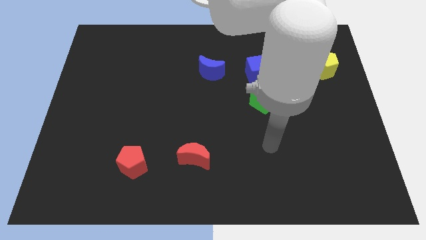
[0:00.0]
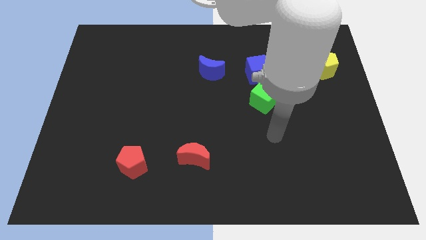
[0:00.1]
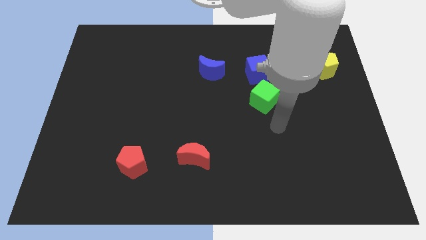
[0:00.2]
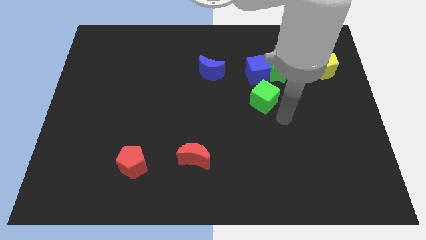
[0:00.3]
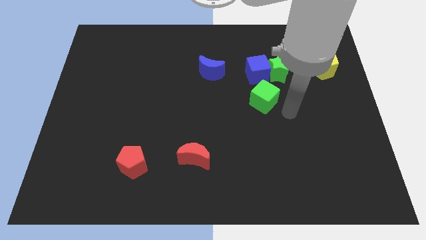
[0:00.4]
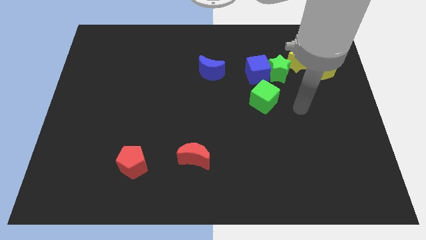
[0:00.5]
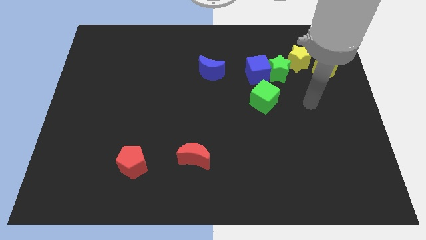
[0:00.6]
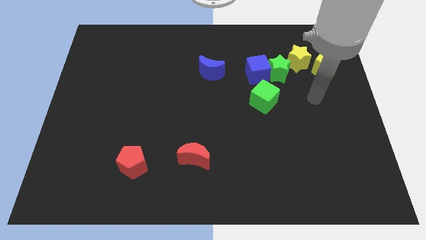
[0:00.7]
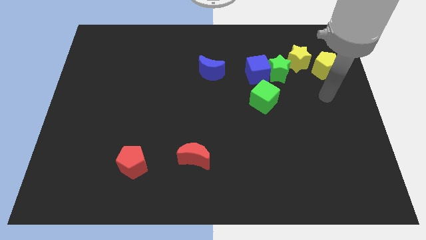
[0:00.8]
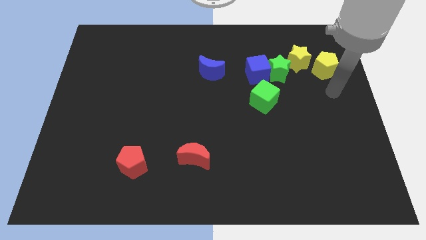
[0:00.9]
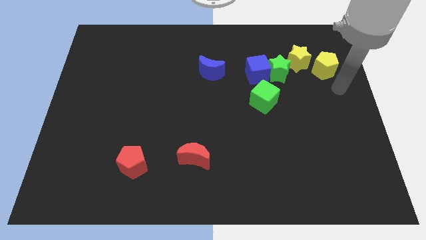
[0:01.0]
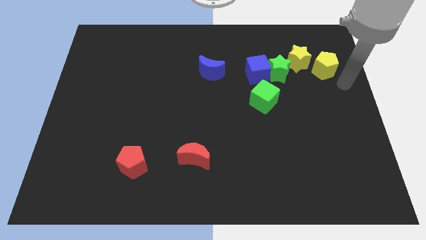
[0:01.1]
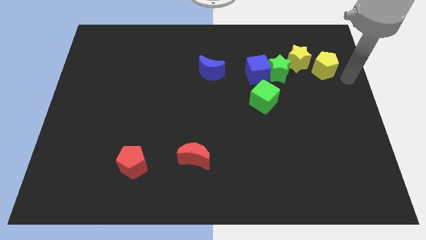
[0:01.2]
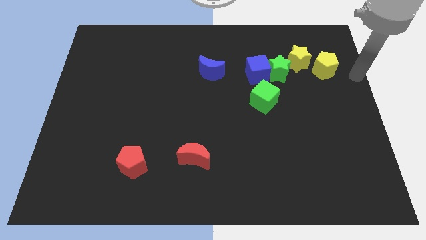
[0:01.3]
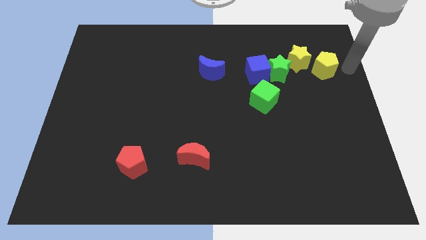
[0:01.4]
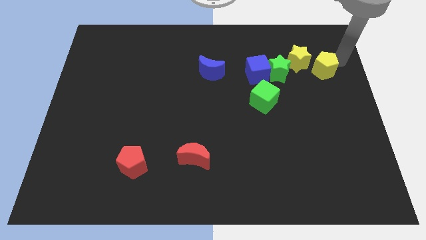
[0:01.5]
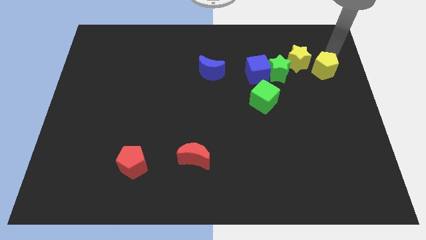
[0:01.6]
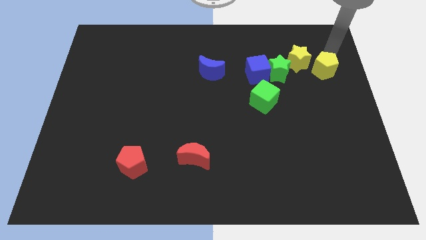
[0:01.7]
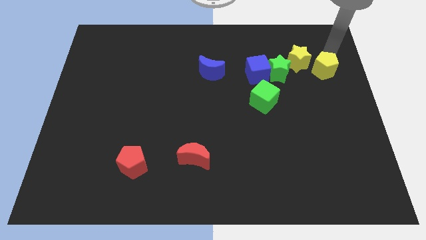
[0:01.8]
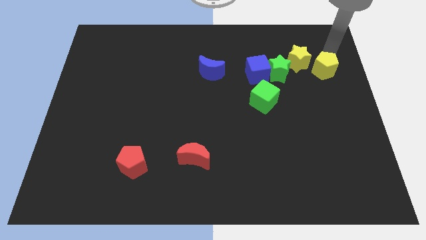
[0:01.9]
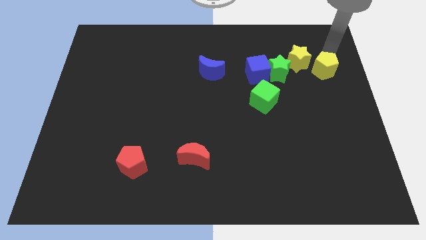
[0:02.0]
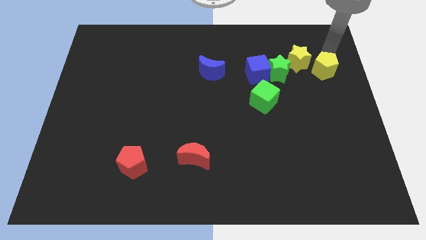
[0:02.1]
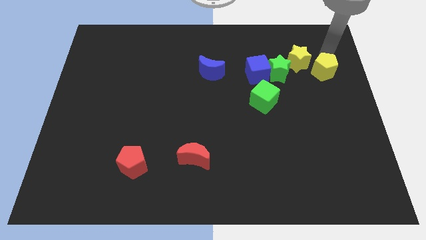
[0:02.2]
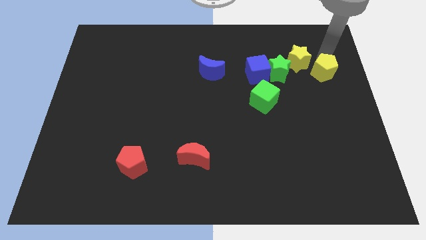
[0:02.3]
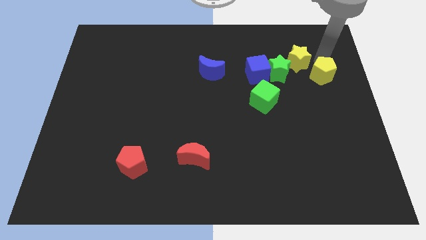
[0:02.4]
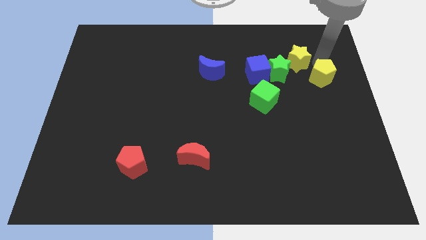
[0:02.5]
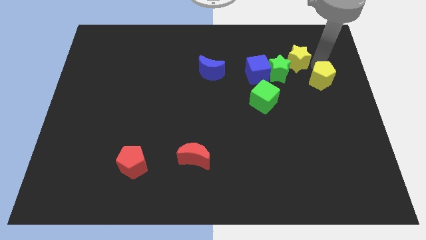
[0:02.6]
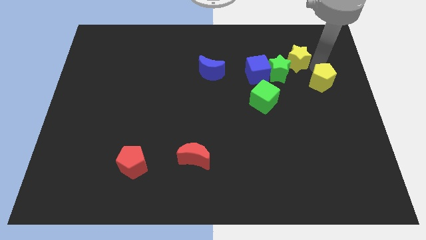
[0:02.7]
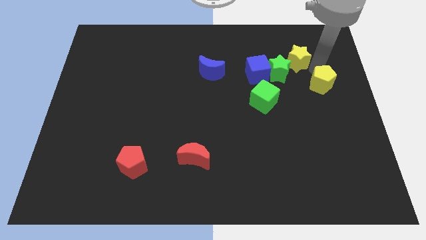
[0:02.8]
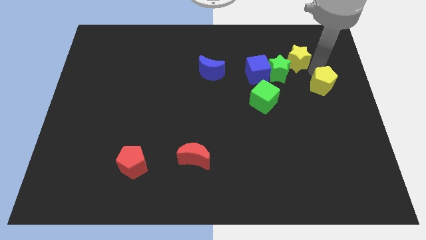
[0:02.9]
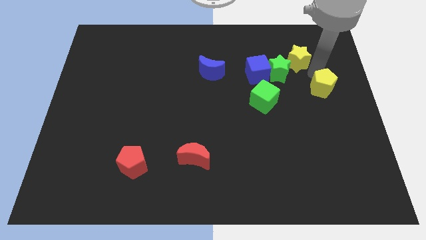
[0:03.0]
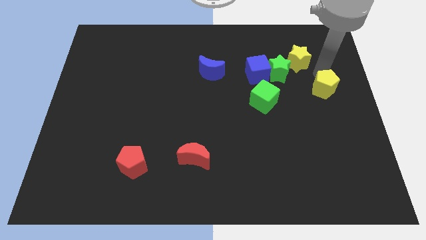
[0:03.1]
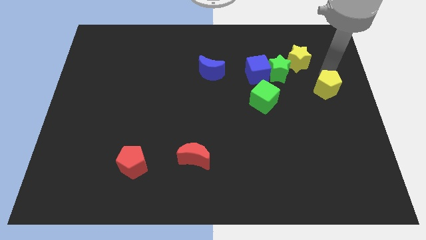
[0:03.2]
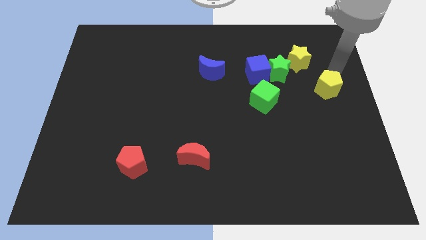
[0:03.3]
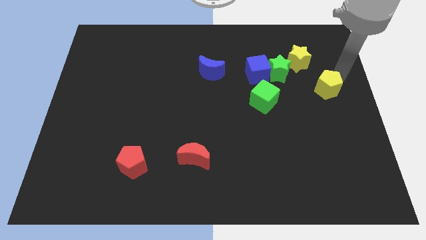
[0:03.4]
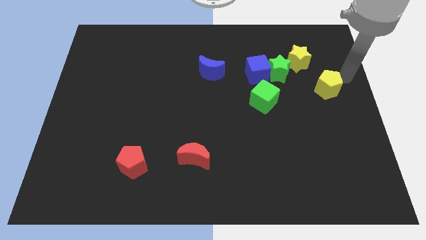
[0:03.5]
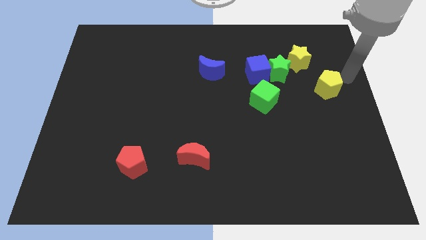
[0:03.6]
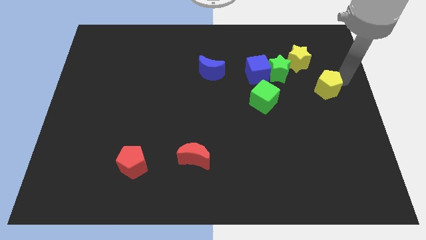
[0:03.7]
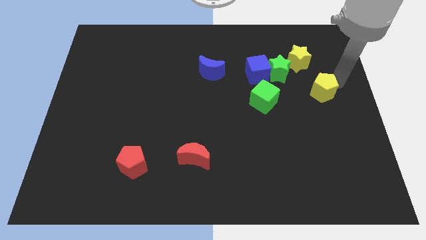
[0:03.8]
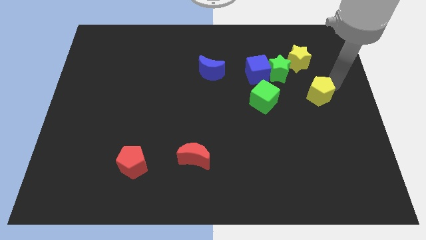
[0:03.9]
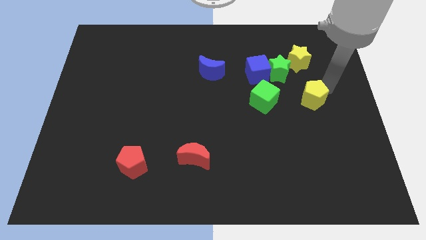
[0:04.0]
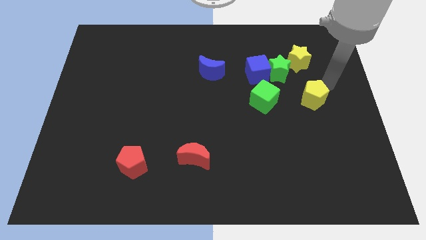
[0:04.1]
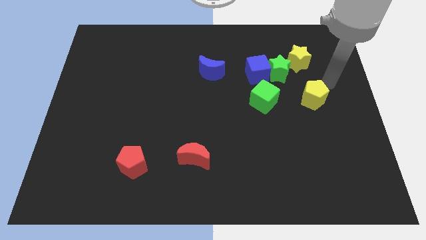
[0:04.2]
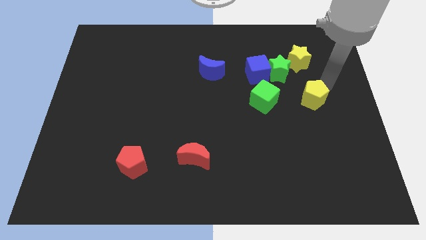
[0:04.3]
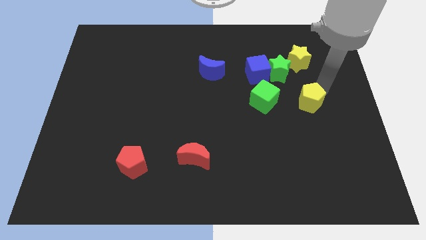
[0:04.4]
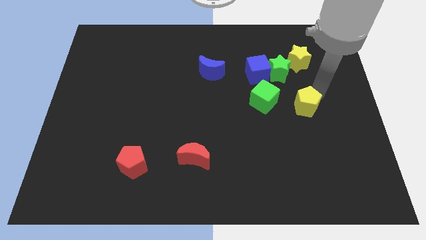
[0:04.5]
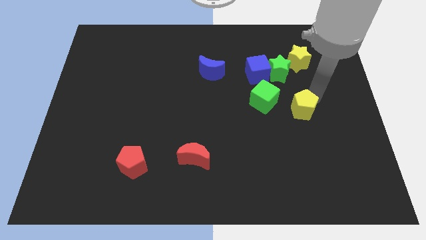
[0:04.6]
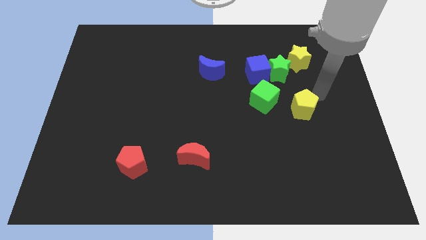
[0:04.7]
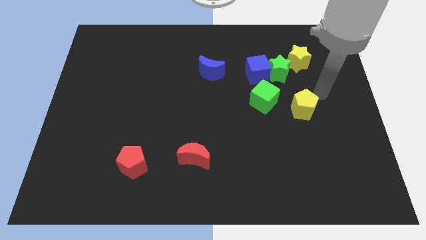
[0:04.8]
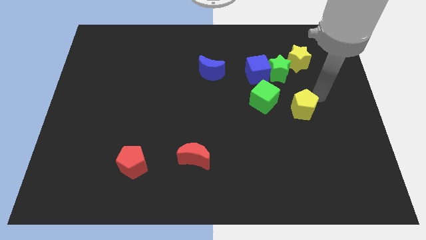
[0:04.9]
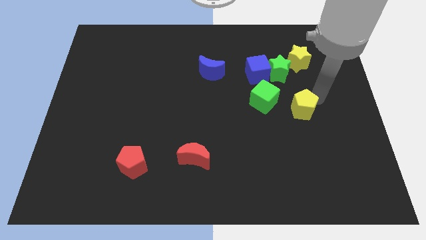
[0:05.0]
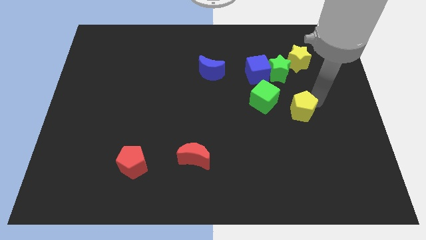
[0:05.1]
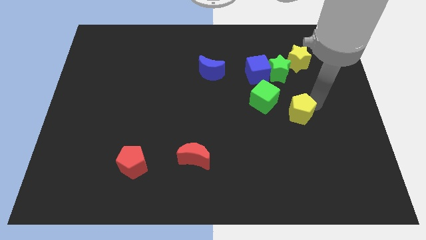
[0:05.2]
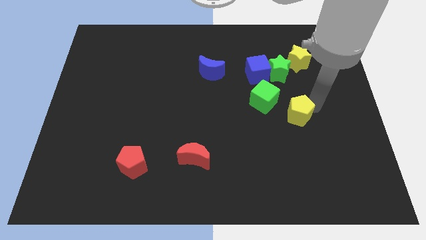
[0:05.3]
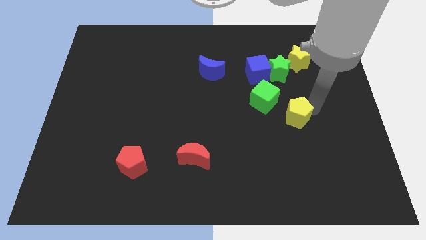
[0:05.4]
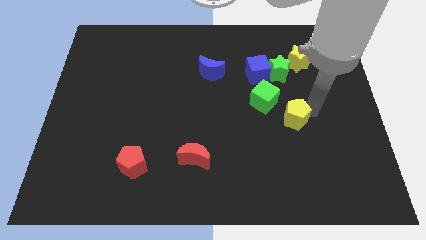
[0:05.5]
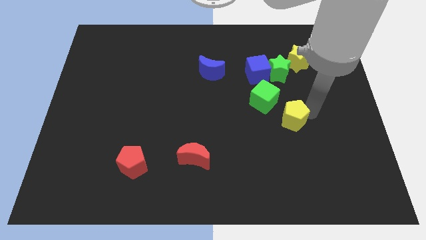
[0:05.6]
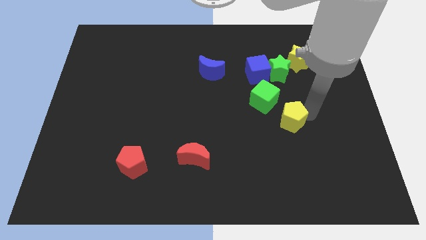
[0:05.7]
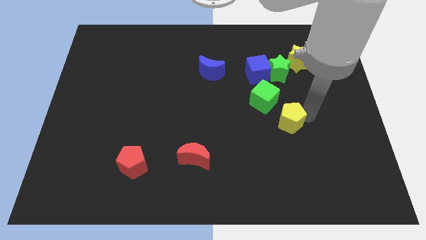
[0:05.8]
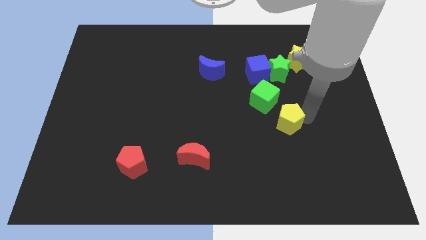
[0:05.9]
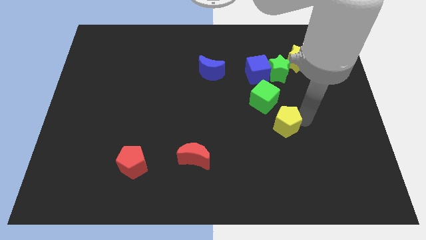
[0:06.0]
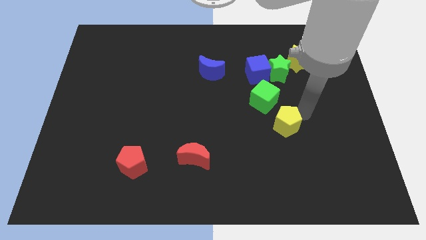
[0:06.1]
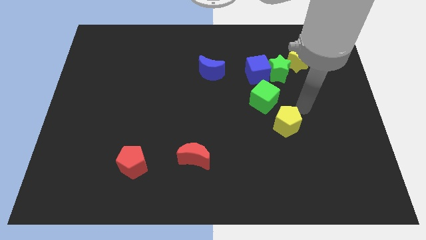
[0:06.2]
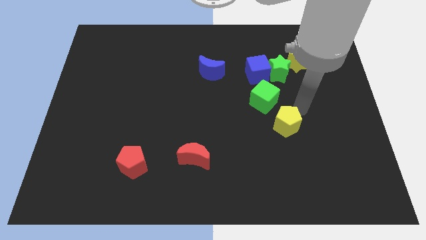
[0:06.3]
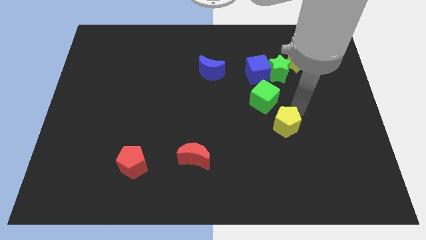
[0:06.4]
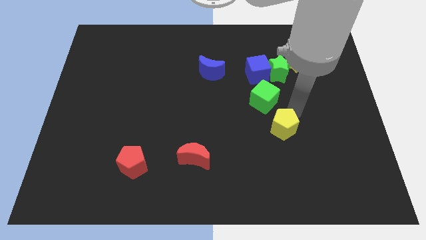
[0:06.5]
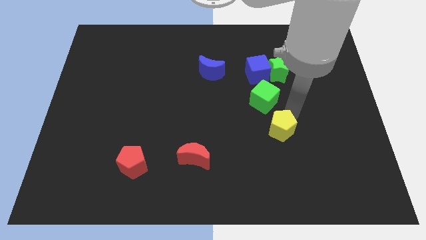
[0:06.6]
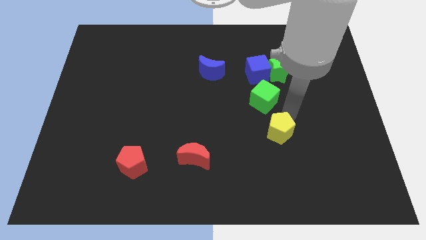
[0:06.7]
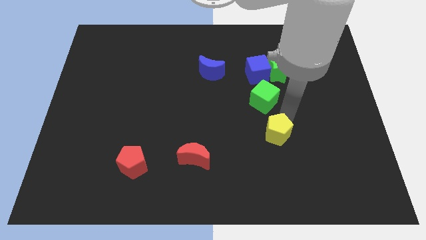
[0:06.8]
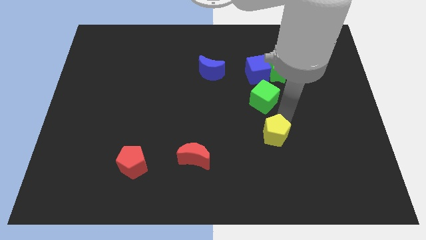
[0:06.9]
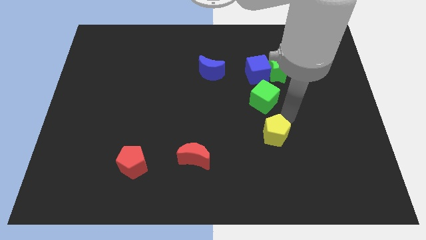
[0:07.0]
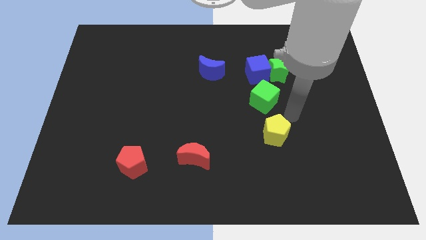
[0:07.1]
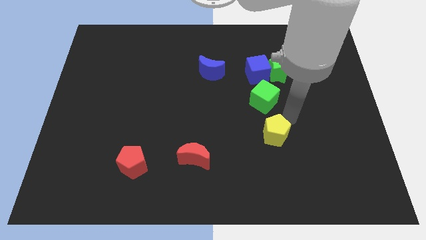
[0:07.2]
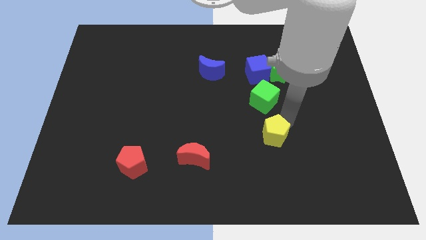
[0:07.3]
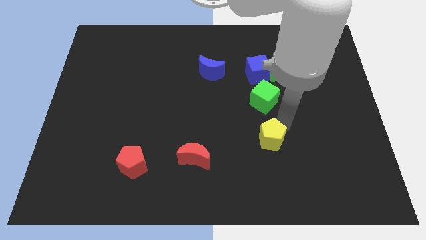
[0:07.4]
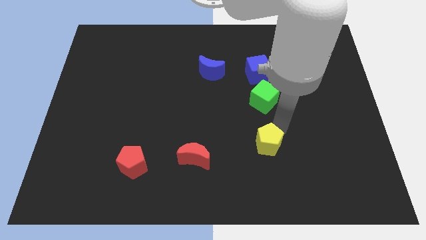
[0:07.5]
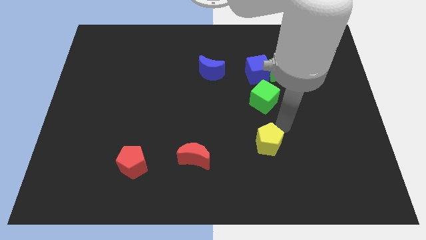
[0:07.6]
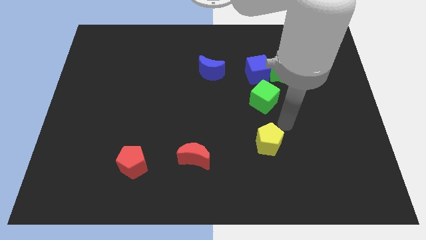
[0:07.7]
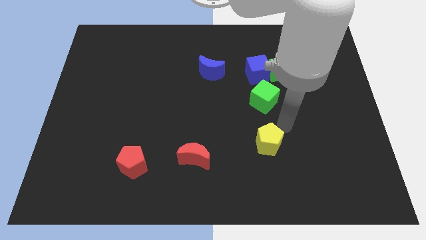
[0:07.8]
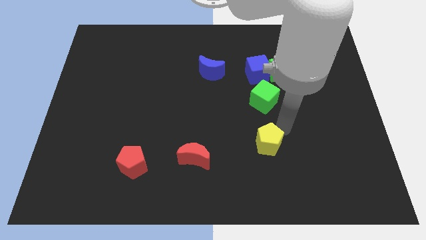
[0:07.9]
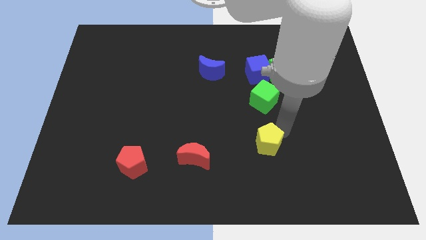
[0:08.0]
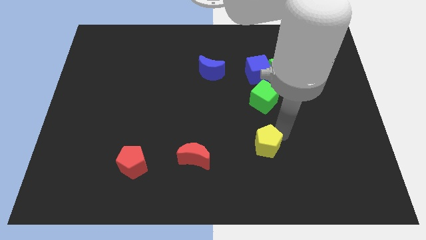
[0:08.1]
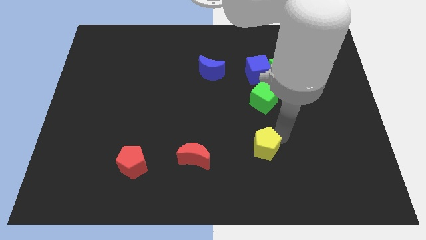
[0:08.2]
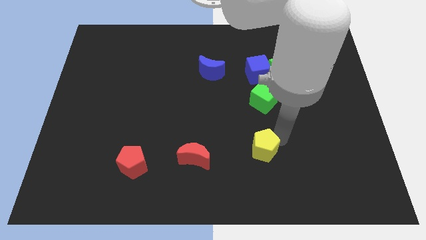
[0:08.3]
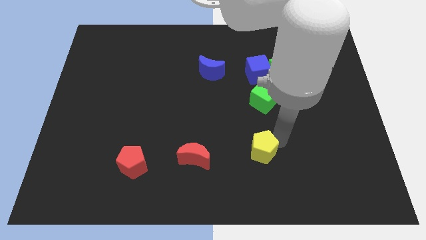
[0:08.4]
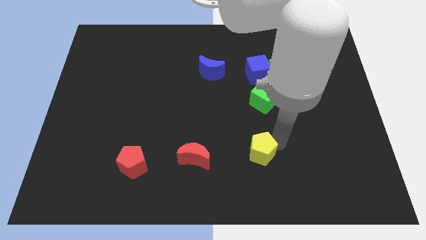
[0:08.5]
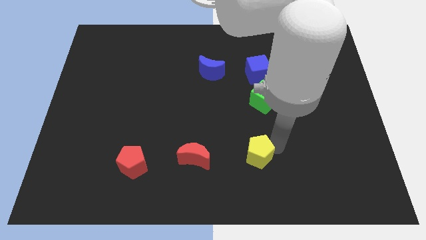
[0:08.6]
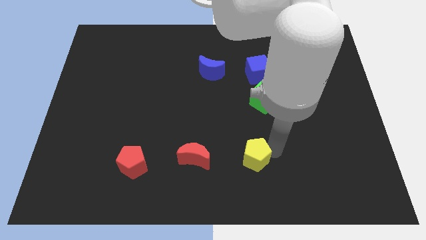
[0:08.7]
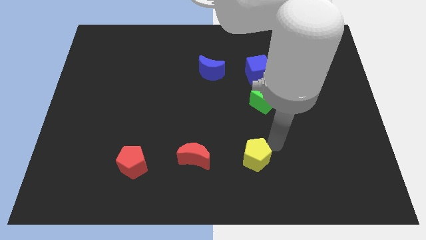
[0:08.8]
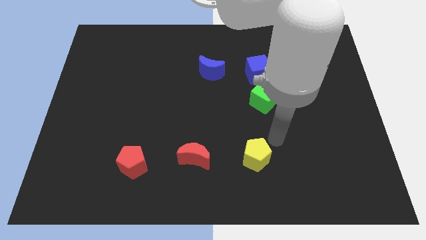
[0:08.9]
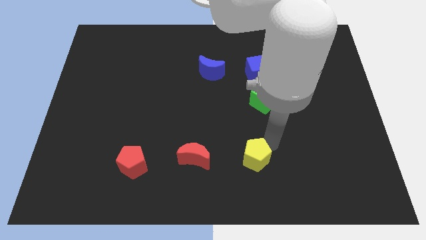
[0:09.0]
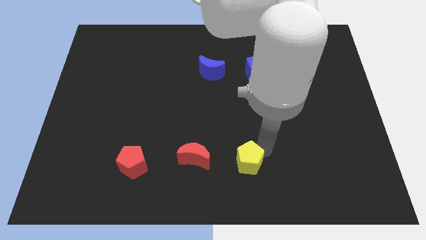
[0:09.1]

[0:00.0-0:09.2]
push the yellow pentagon to the bottom
